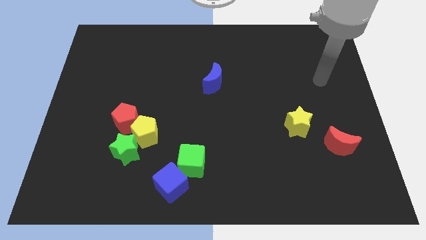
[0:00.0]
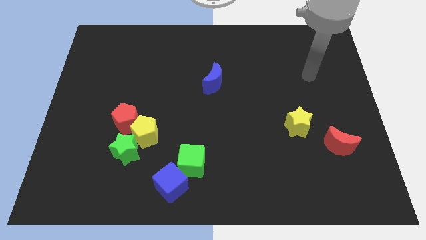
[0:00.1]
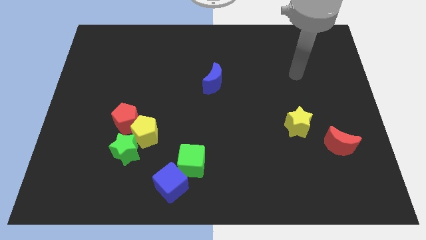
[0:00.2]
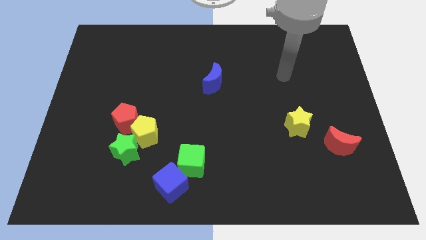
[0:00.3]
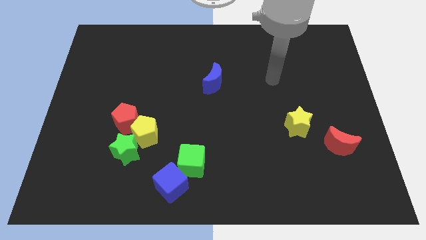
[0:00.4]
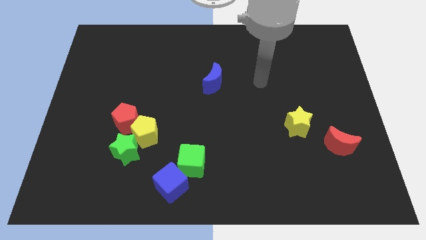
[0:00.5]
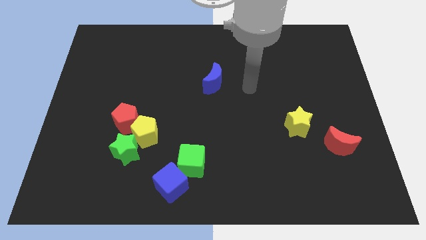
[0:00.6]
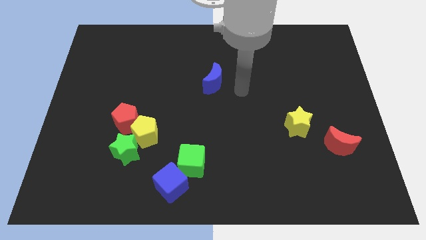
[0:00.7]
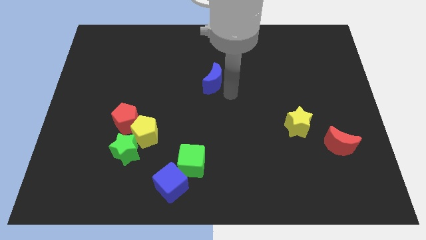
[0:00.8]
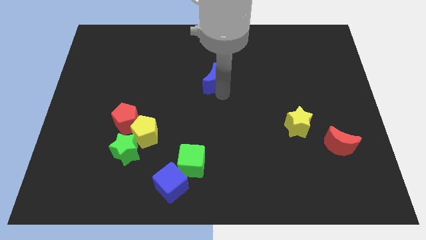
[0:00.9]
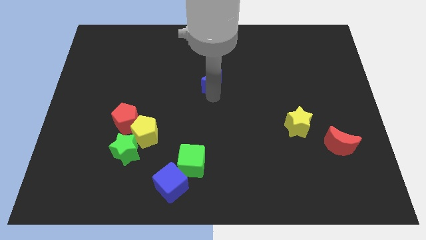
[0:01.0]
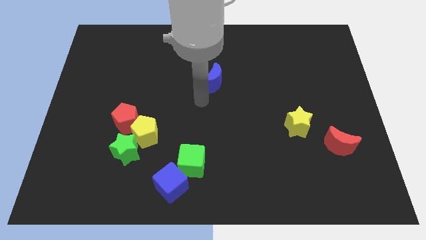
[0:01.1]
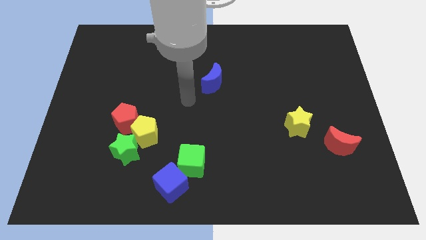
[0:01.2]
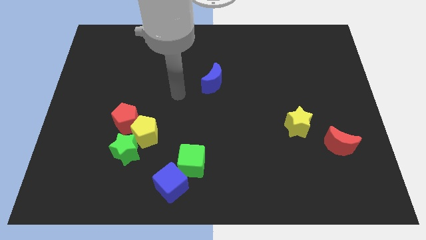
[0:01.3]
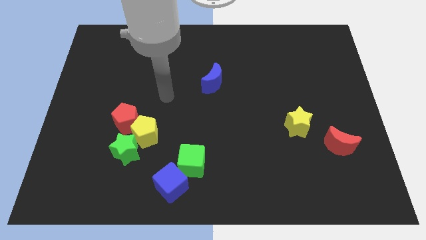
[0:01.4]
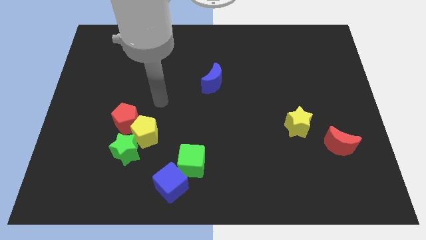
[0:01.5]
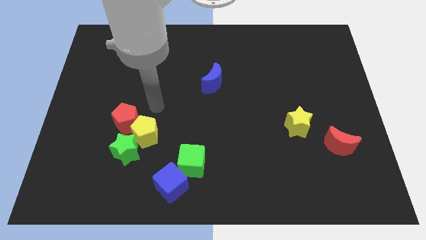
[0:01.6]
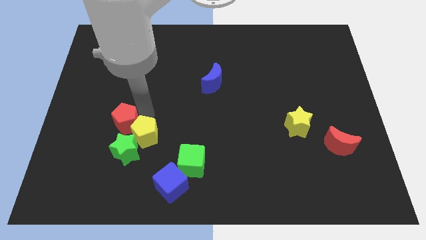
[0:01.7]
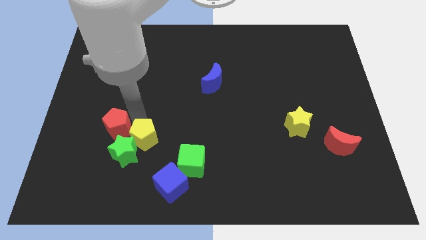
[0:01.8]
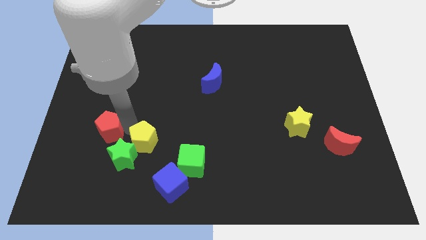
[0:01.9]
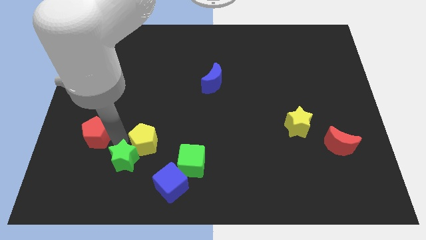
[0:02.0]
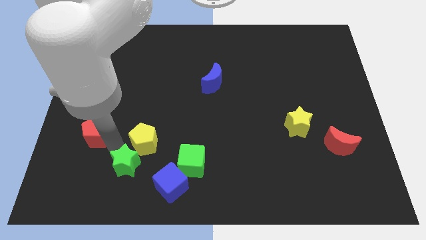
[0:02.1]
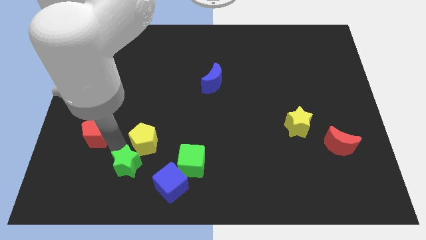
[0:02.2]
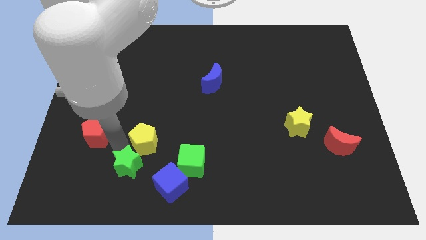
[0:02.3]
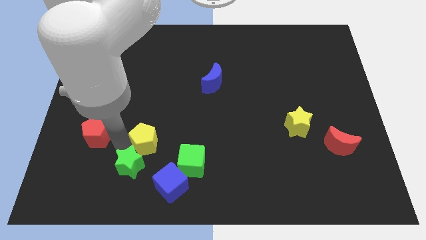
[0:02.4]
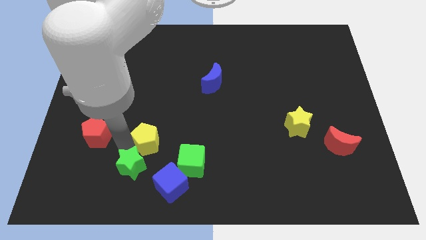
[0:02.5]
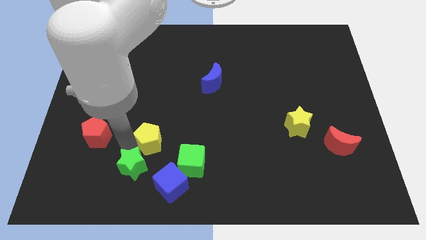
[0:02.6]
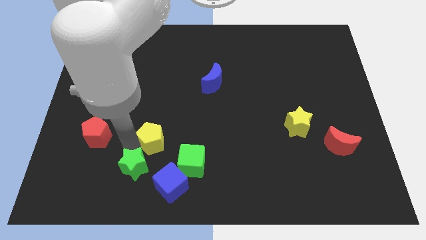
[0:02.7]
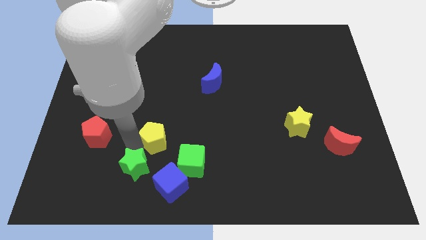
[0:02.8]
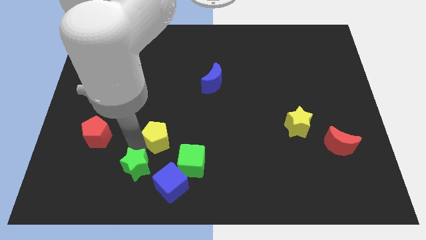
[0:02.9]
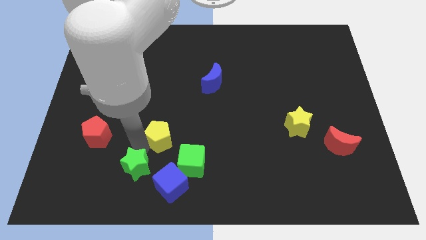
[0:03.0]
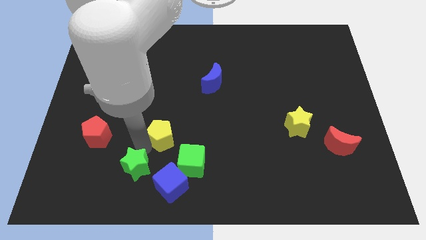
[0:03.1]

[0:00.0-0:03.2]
move the yellow pentagon away from the red pentagon and green star

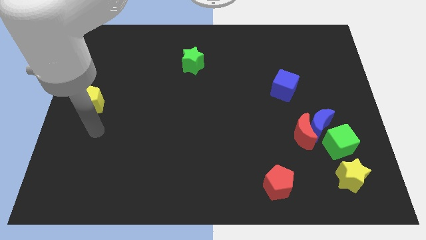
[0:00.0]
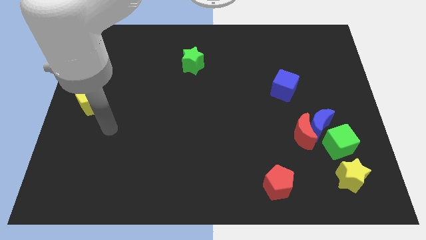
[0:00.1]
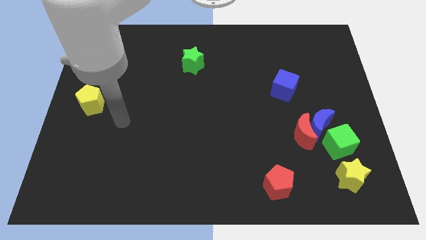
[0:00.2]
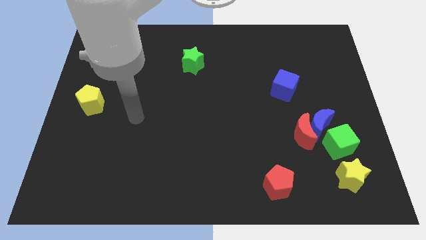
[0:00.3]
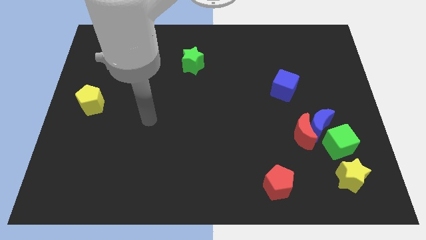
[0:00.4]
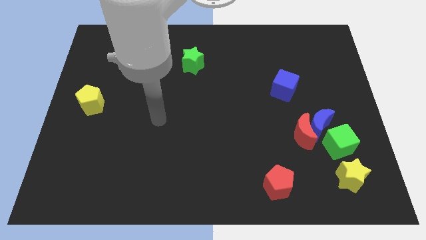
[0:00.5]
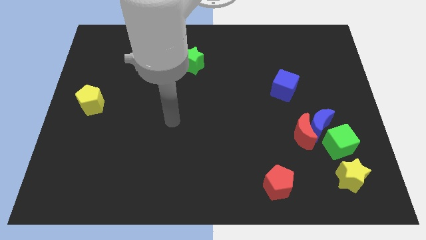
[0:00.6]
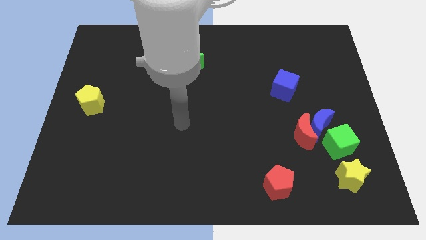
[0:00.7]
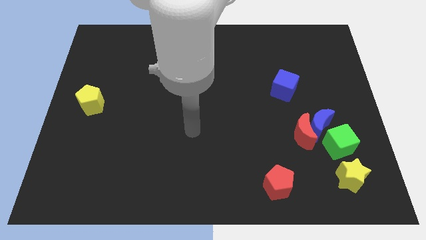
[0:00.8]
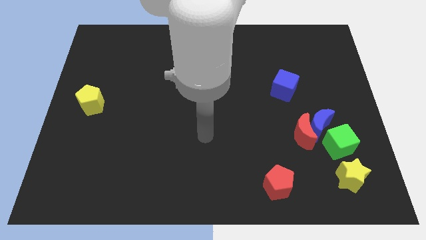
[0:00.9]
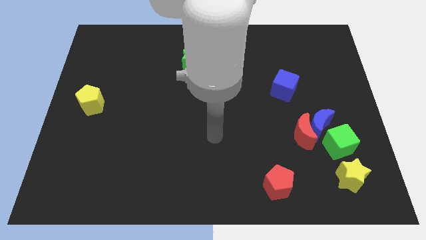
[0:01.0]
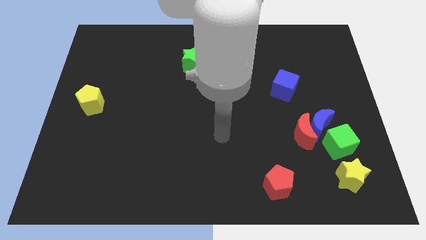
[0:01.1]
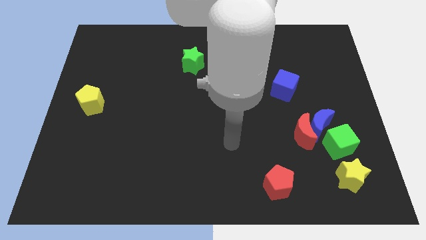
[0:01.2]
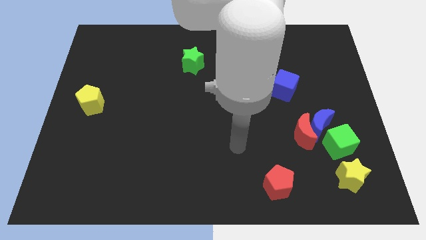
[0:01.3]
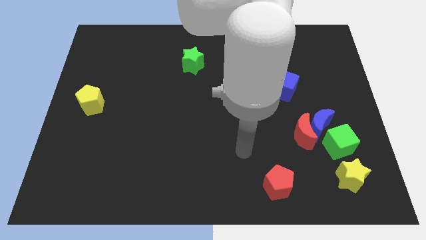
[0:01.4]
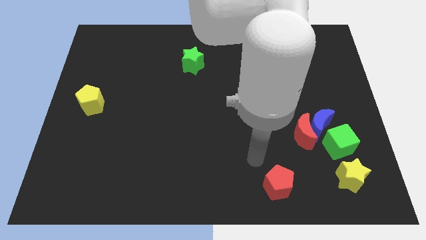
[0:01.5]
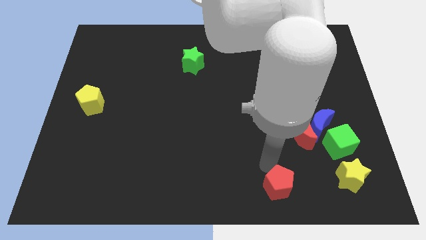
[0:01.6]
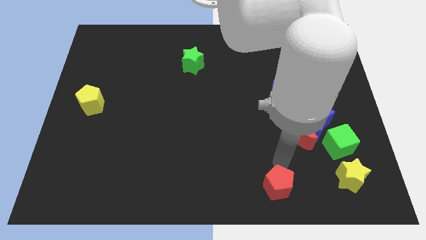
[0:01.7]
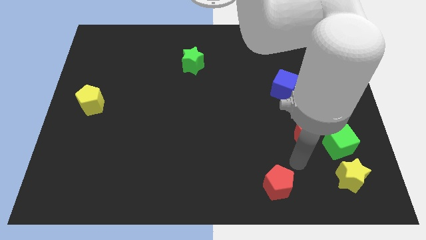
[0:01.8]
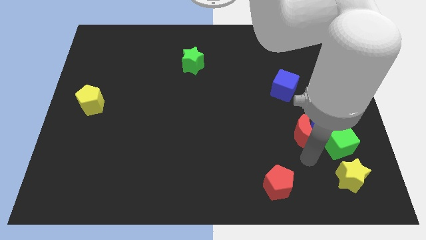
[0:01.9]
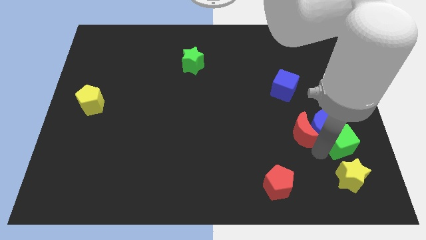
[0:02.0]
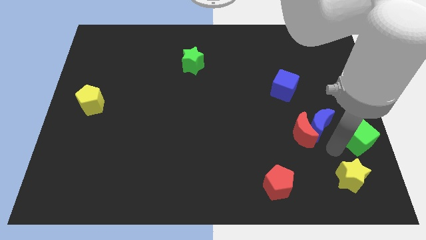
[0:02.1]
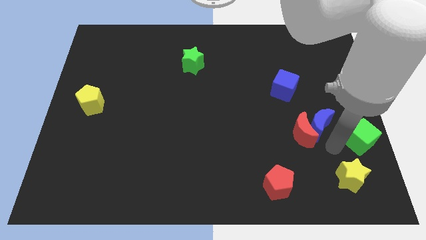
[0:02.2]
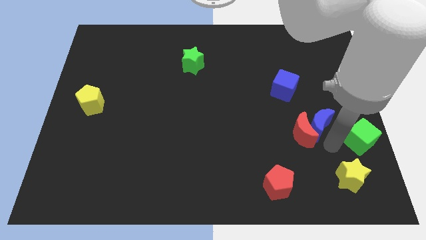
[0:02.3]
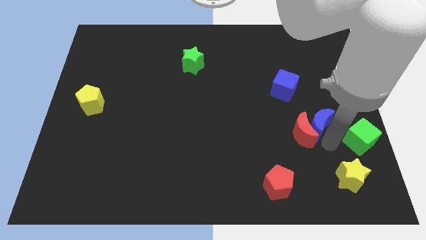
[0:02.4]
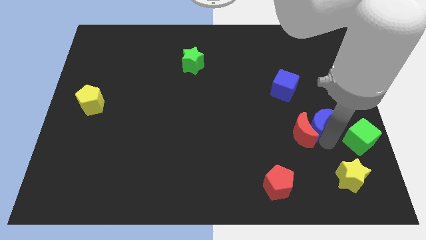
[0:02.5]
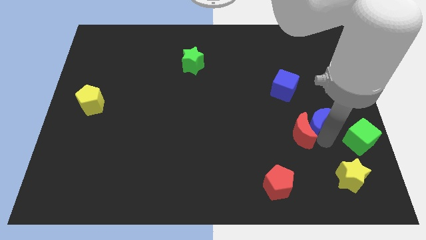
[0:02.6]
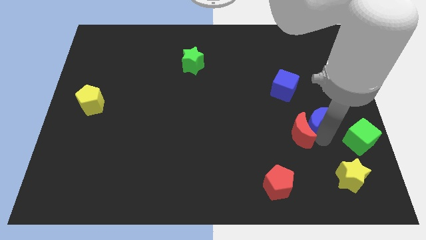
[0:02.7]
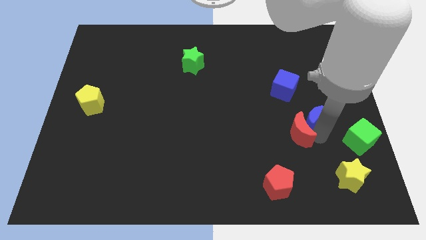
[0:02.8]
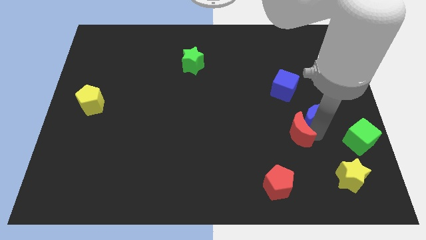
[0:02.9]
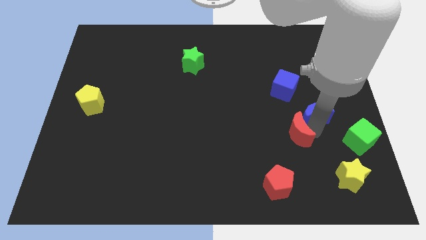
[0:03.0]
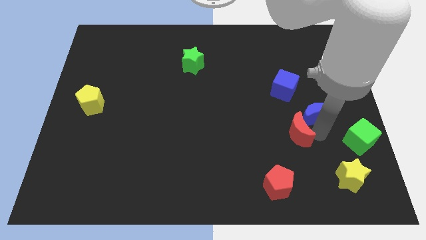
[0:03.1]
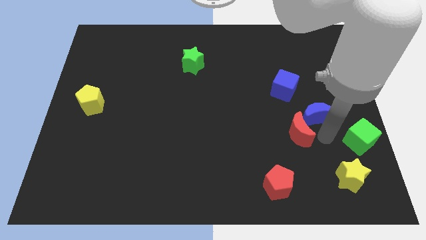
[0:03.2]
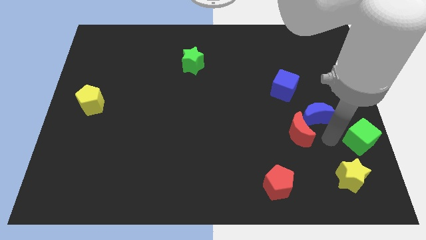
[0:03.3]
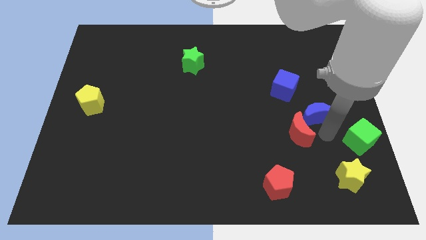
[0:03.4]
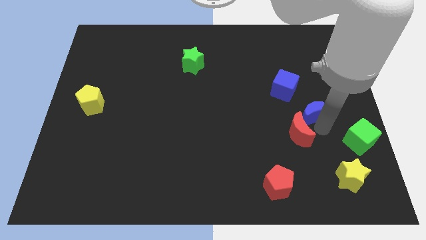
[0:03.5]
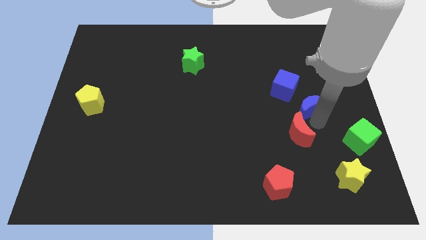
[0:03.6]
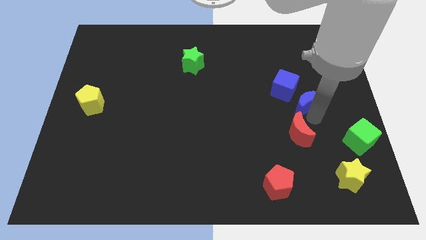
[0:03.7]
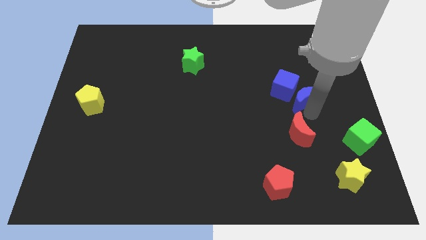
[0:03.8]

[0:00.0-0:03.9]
pull the blue moon apart from the red moon and green cube

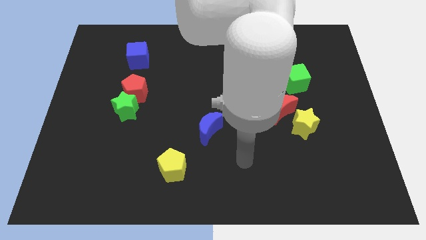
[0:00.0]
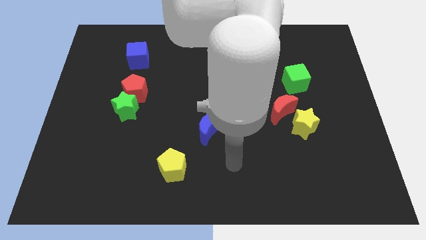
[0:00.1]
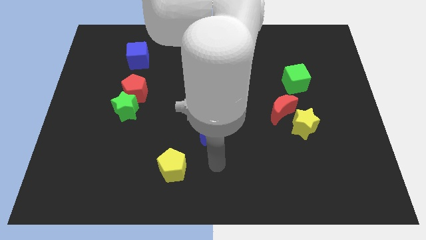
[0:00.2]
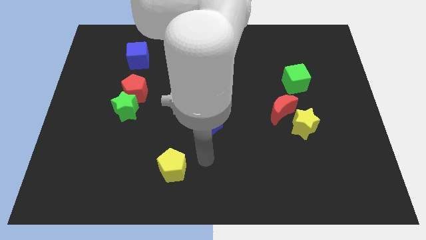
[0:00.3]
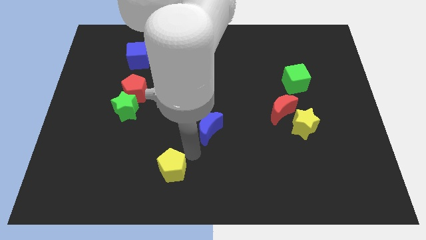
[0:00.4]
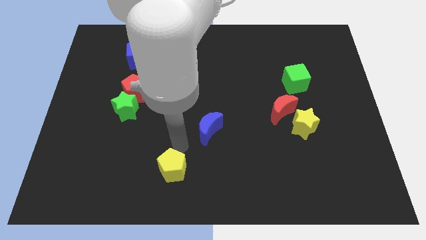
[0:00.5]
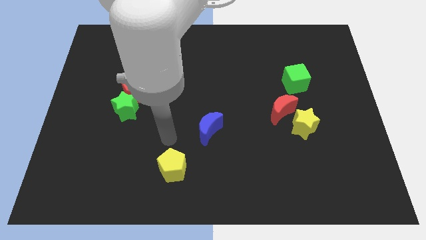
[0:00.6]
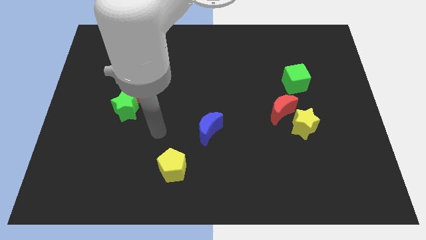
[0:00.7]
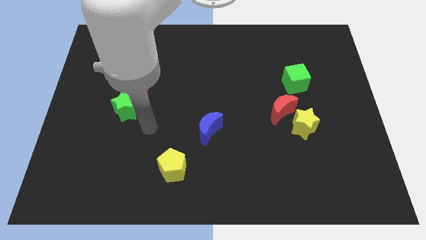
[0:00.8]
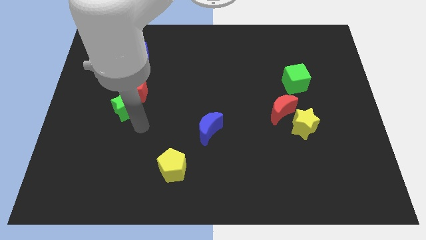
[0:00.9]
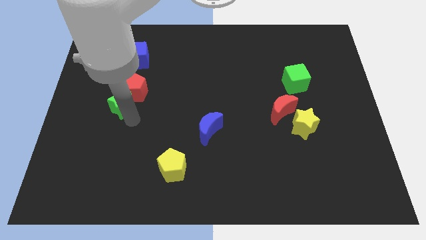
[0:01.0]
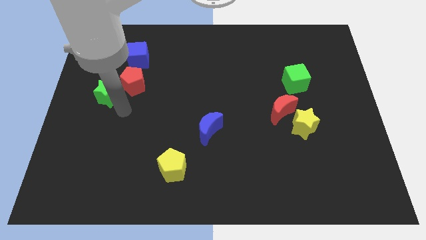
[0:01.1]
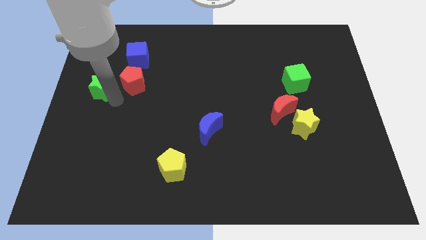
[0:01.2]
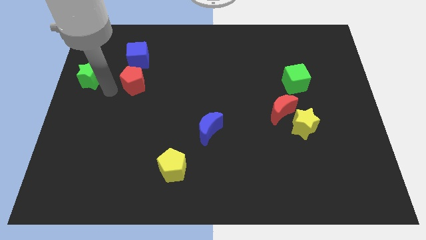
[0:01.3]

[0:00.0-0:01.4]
move the red pentagon away from the green star

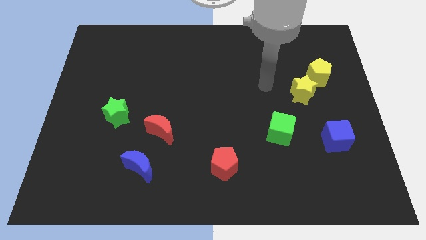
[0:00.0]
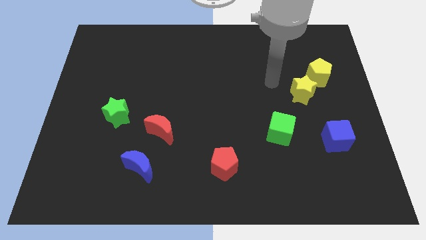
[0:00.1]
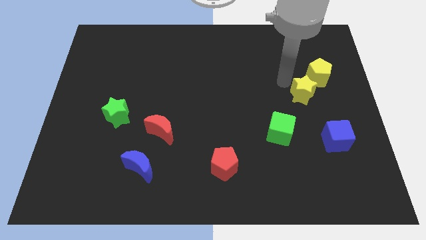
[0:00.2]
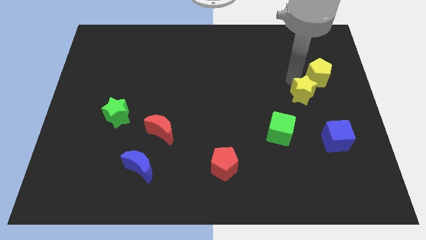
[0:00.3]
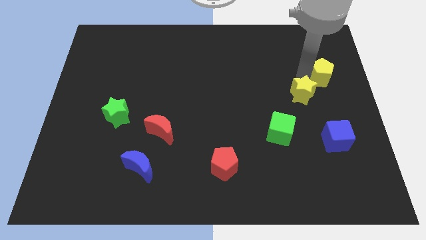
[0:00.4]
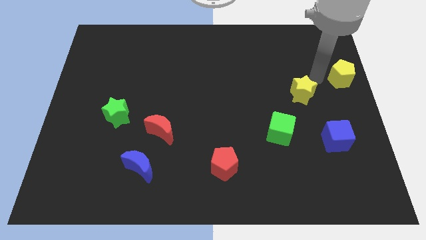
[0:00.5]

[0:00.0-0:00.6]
separate the yellow star from the yellow pentagon

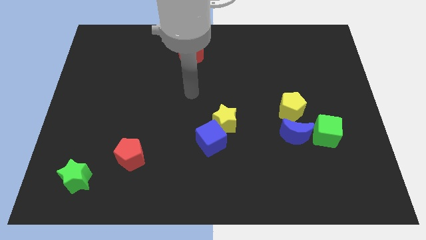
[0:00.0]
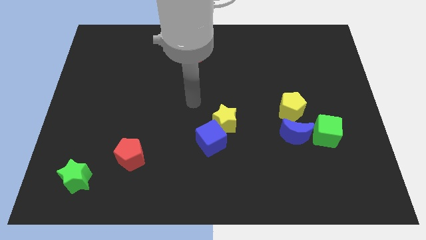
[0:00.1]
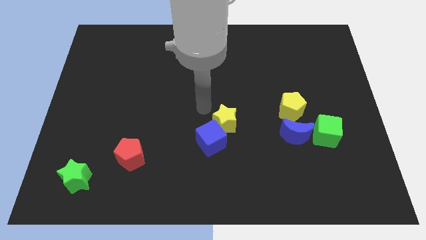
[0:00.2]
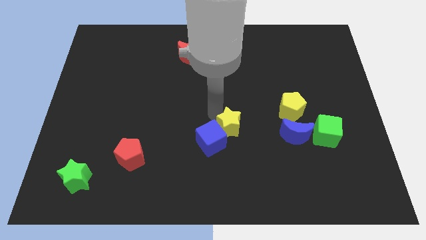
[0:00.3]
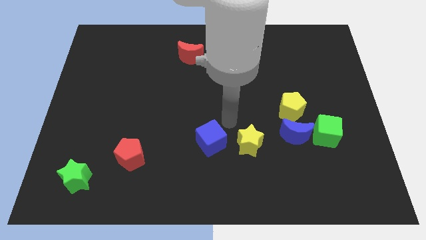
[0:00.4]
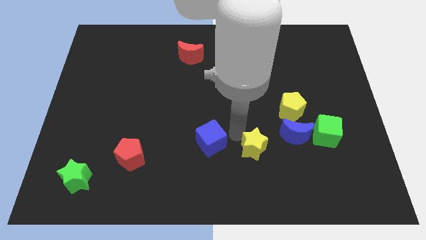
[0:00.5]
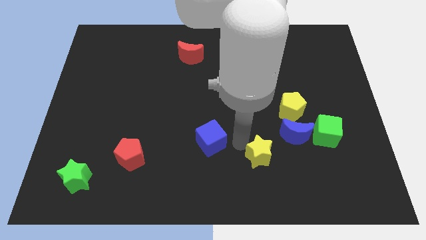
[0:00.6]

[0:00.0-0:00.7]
move the blue cube away from the yellow star
